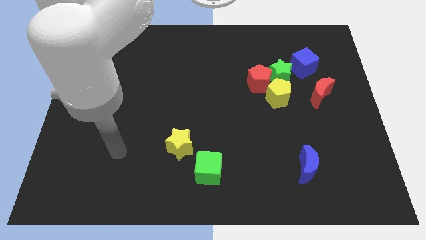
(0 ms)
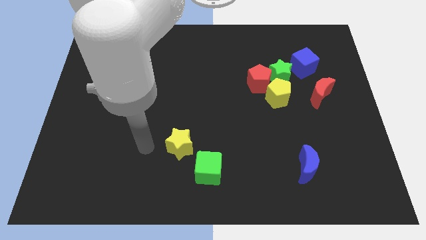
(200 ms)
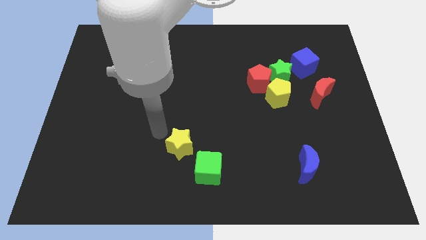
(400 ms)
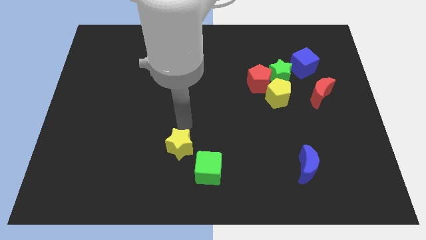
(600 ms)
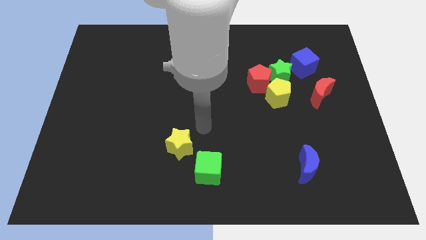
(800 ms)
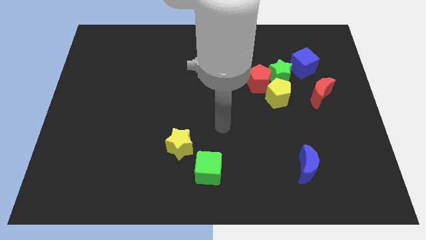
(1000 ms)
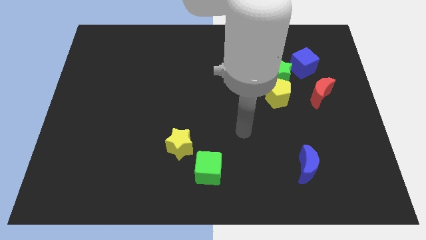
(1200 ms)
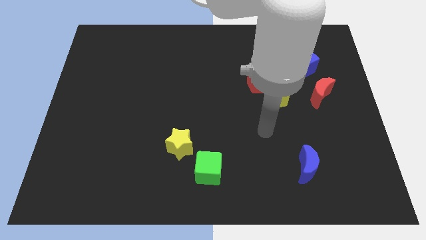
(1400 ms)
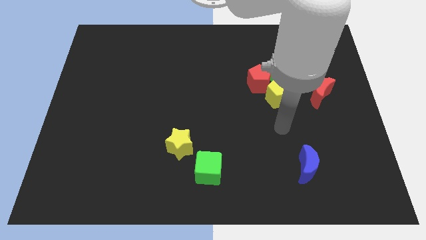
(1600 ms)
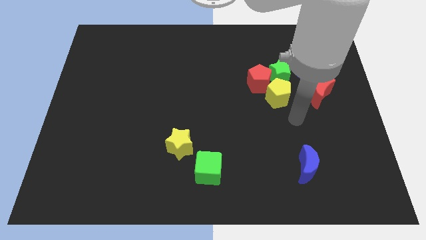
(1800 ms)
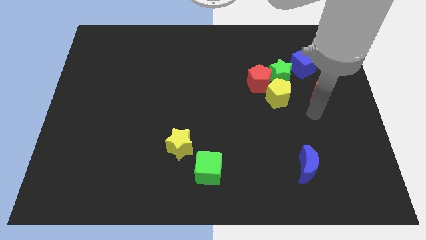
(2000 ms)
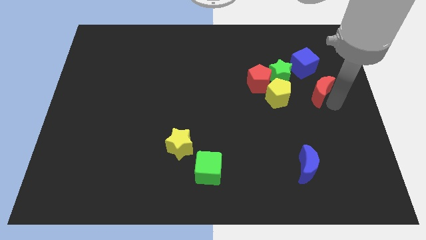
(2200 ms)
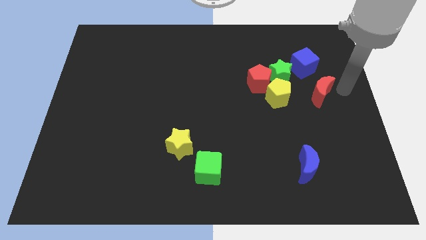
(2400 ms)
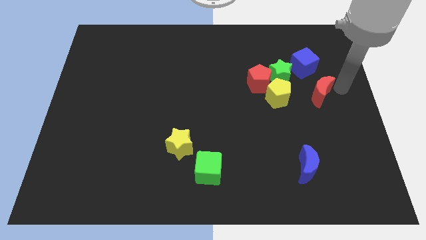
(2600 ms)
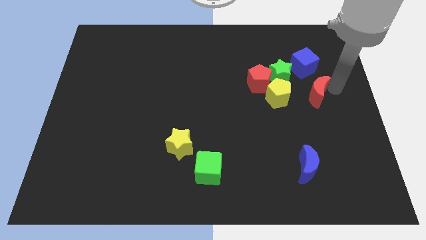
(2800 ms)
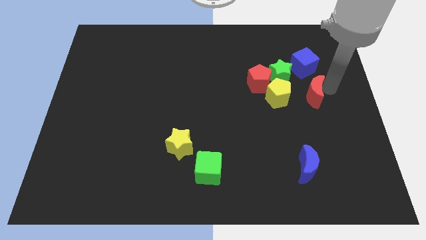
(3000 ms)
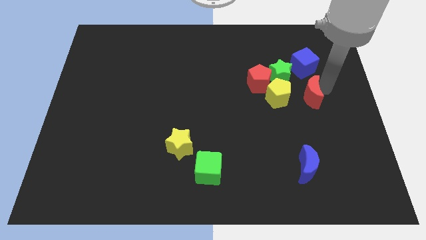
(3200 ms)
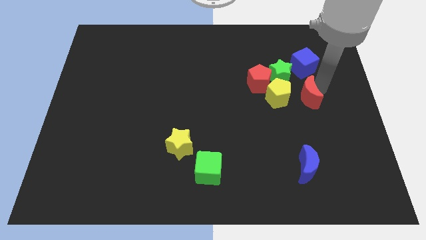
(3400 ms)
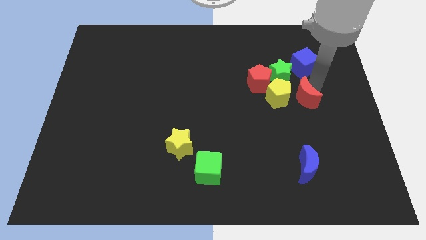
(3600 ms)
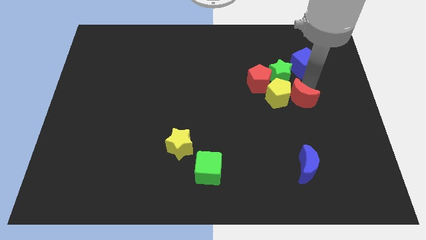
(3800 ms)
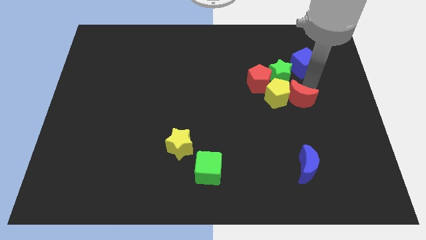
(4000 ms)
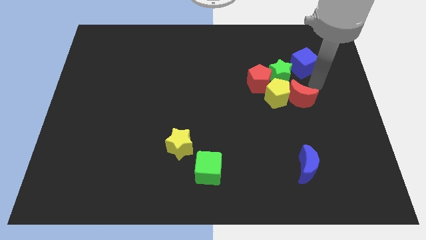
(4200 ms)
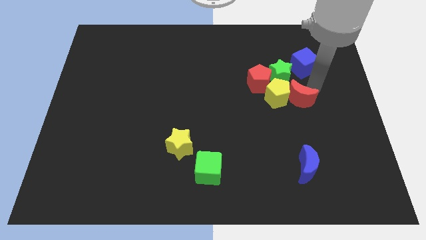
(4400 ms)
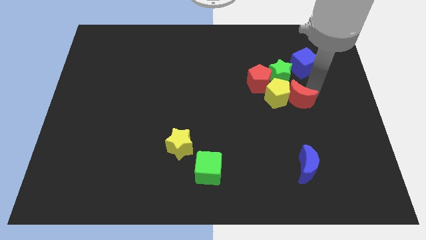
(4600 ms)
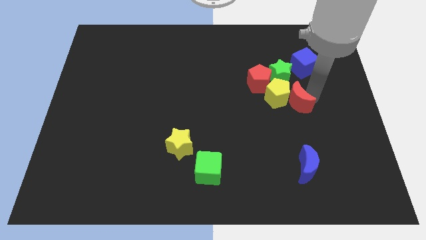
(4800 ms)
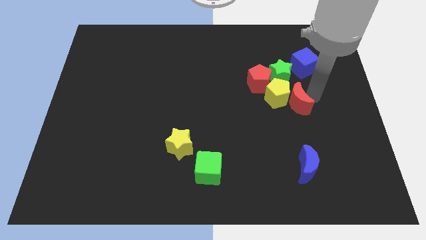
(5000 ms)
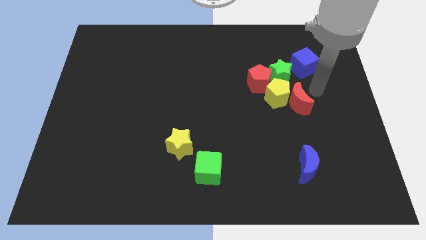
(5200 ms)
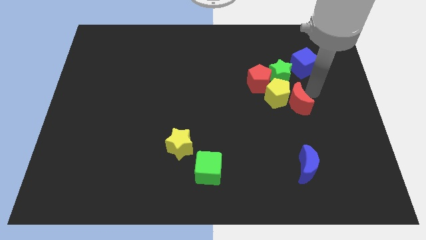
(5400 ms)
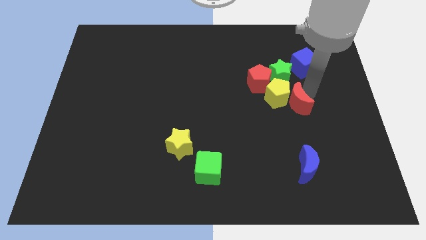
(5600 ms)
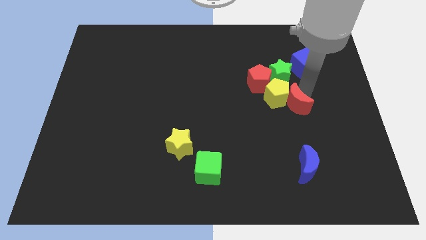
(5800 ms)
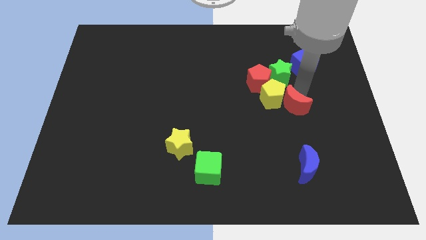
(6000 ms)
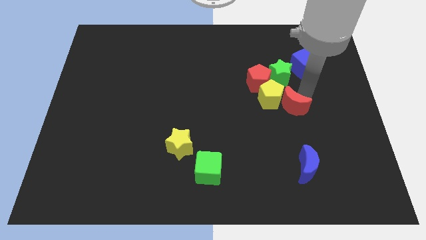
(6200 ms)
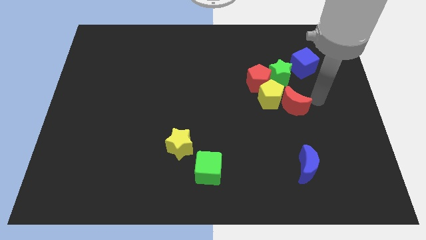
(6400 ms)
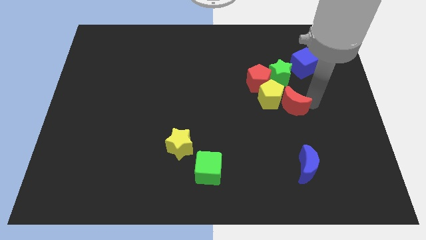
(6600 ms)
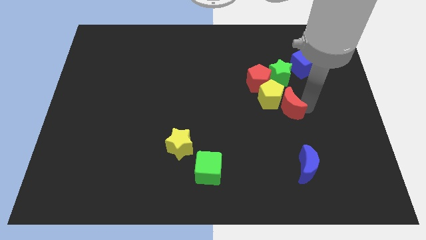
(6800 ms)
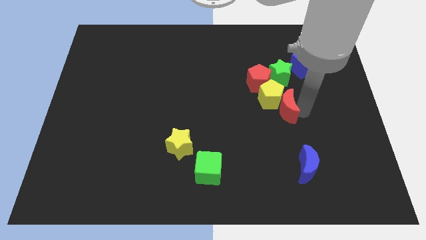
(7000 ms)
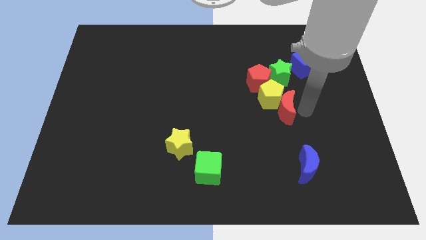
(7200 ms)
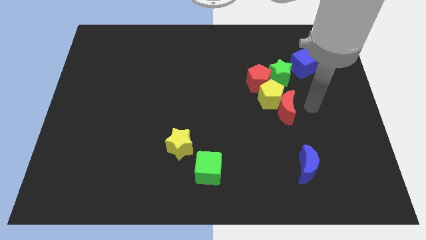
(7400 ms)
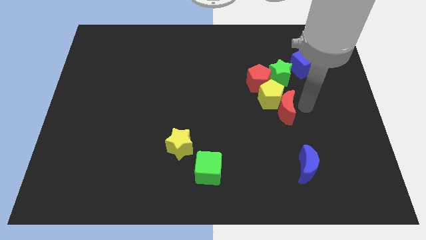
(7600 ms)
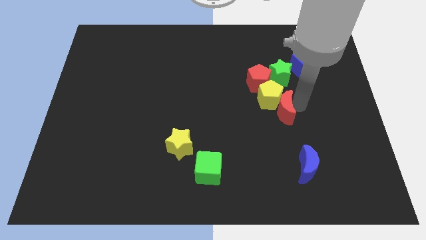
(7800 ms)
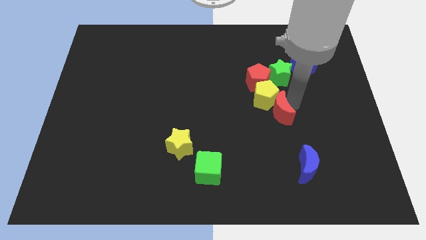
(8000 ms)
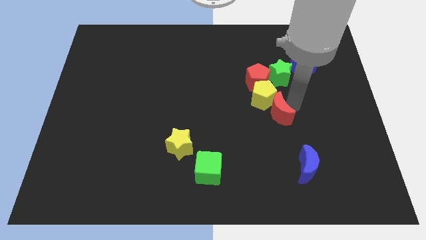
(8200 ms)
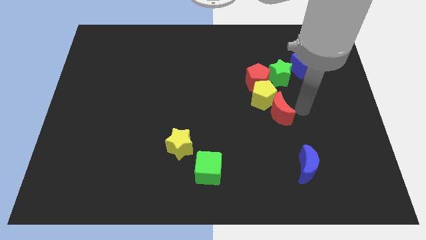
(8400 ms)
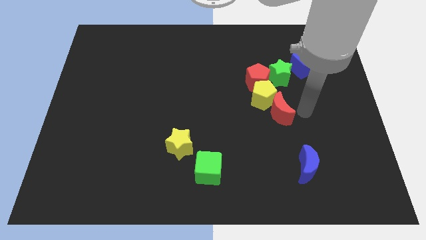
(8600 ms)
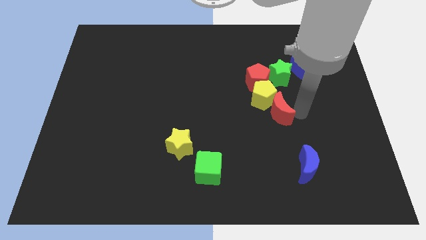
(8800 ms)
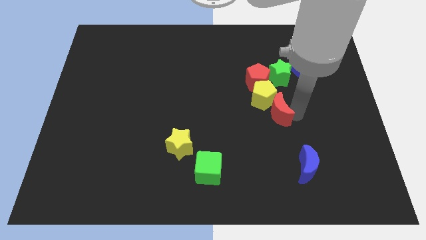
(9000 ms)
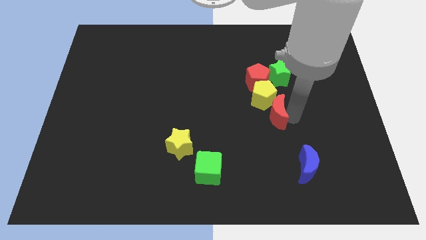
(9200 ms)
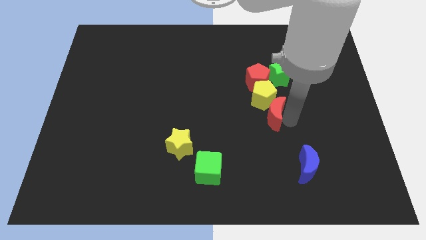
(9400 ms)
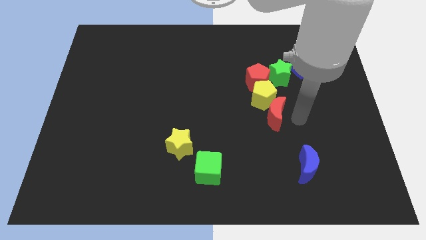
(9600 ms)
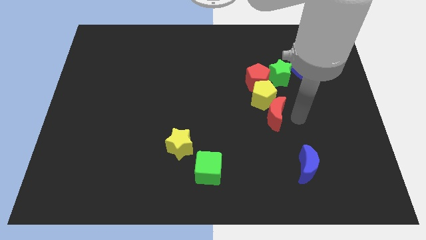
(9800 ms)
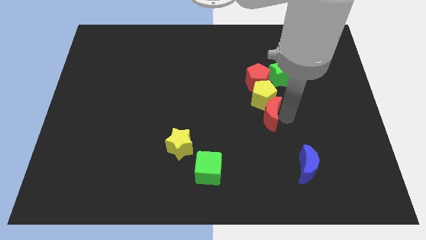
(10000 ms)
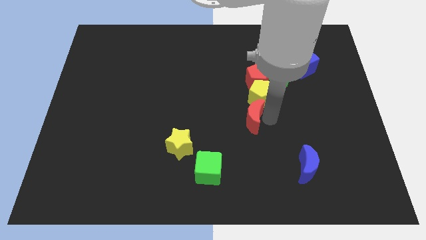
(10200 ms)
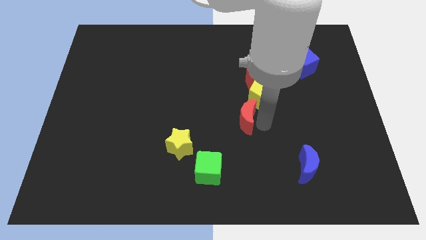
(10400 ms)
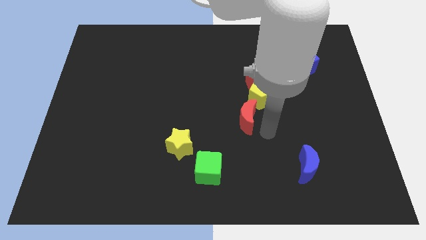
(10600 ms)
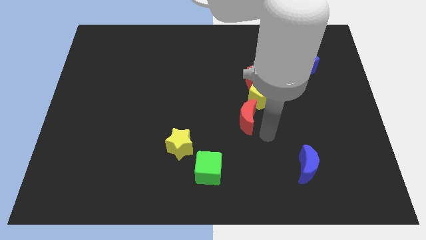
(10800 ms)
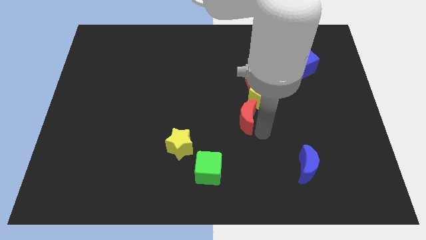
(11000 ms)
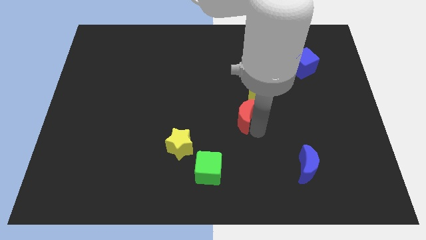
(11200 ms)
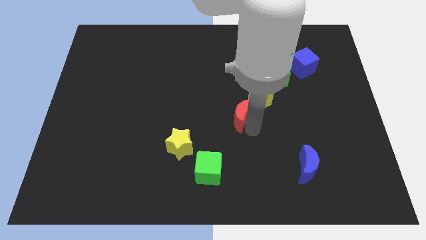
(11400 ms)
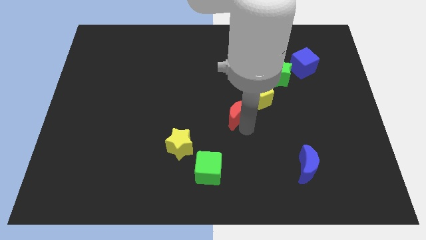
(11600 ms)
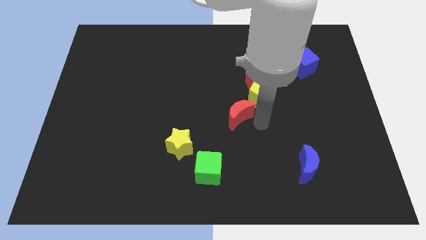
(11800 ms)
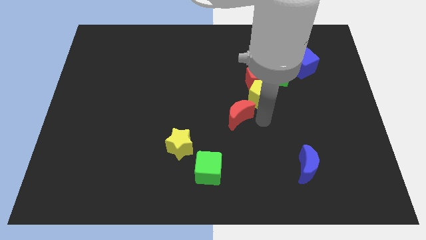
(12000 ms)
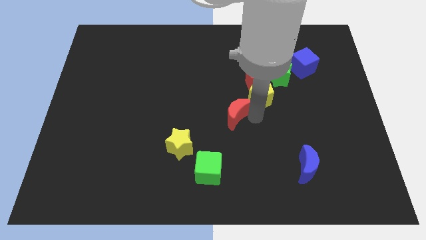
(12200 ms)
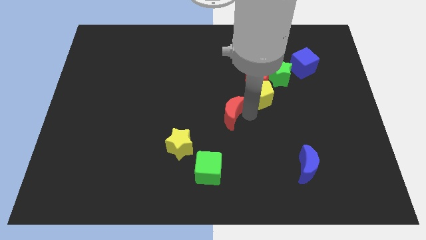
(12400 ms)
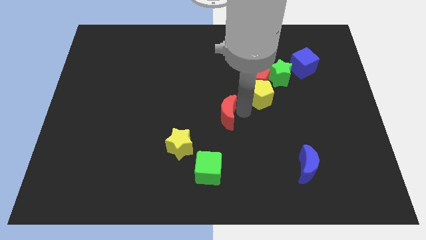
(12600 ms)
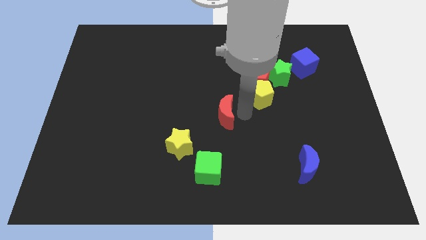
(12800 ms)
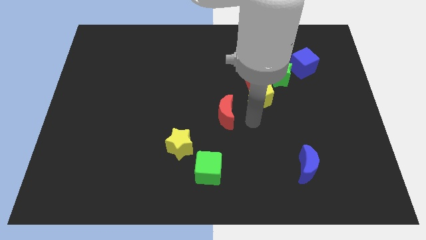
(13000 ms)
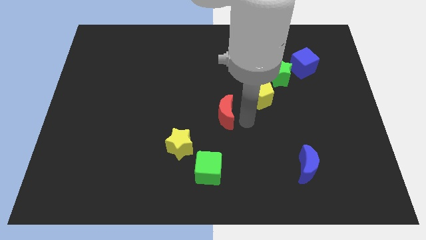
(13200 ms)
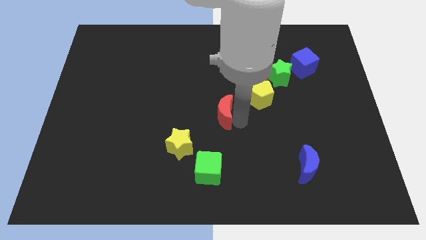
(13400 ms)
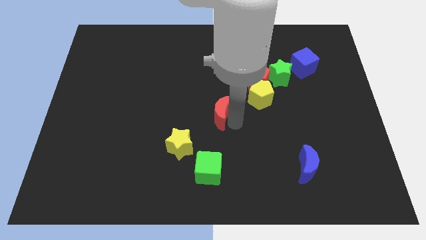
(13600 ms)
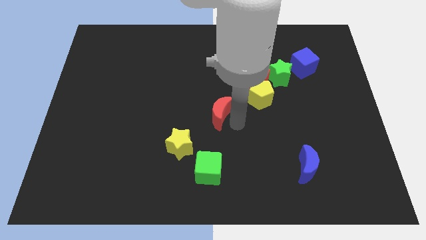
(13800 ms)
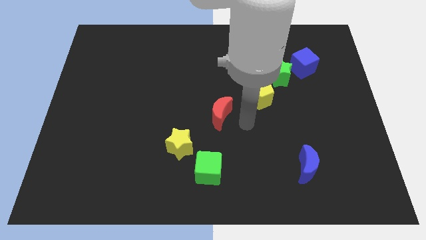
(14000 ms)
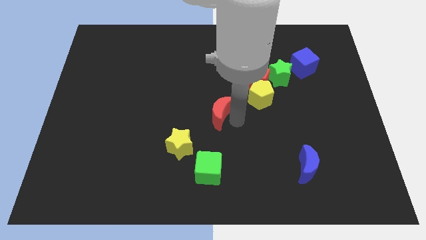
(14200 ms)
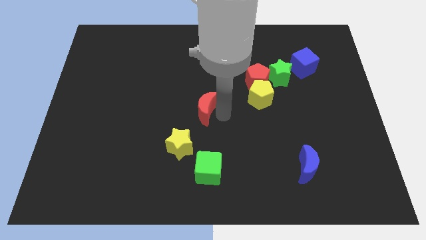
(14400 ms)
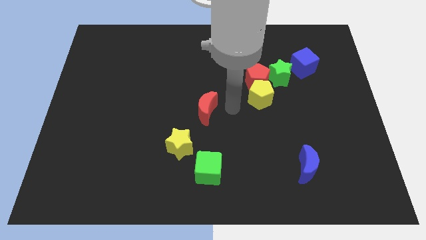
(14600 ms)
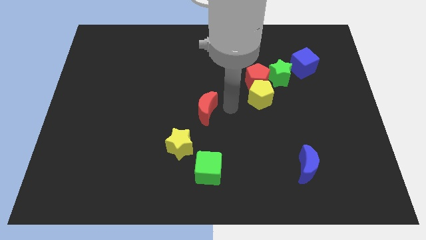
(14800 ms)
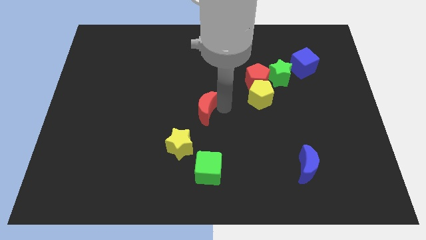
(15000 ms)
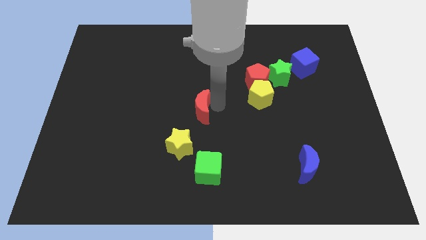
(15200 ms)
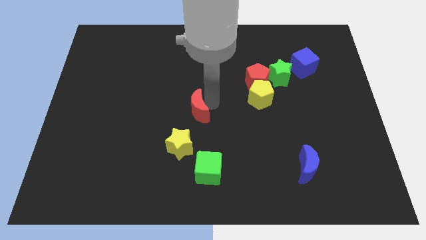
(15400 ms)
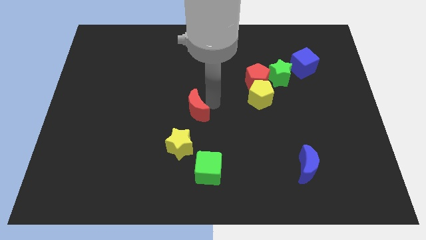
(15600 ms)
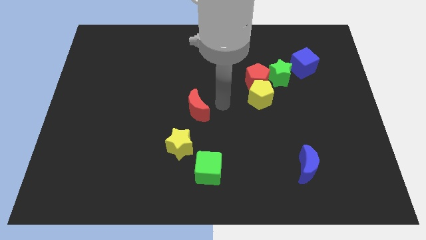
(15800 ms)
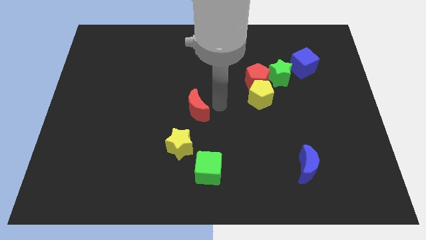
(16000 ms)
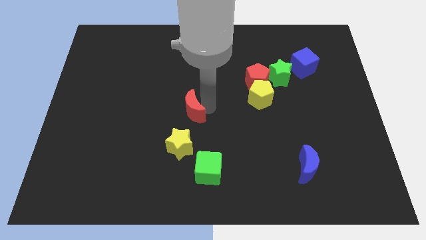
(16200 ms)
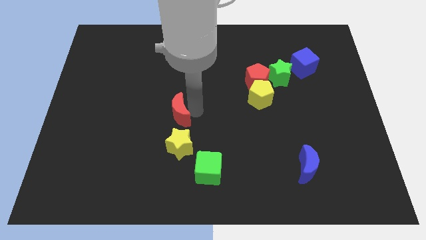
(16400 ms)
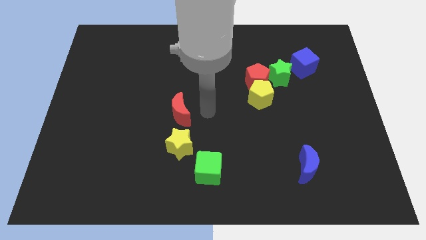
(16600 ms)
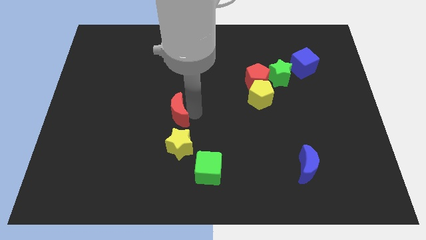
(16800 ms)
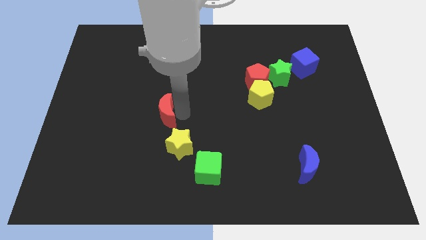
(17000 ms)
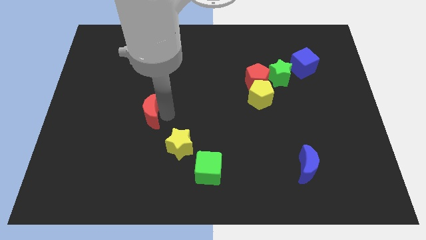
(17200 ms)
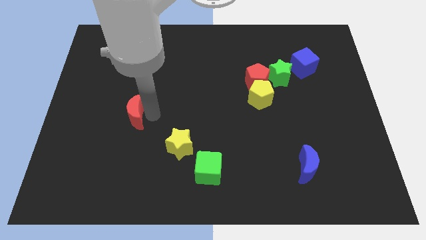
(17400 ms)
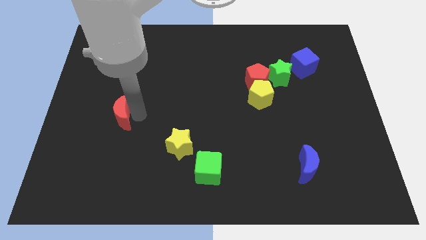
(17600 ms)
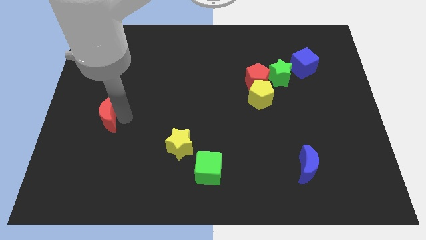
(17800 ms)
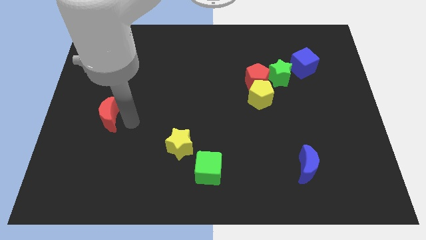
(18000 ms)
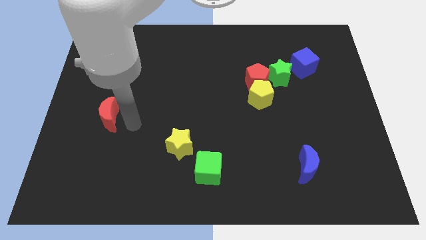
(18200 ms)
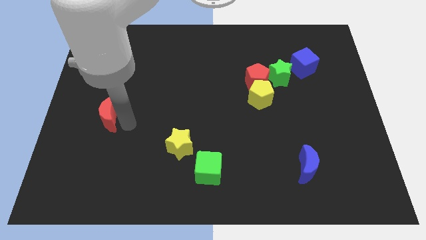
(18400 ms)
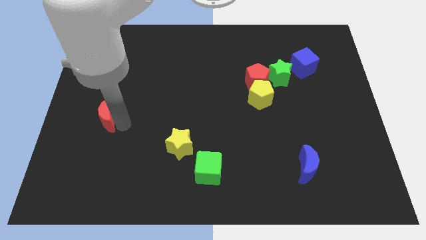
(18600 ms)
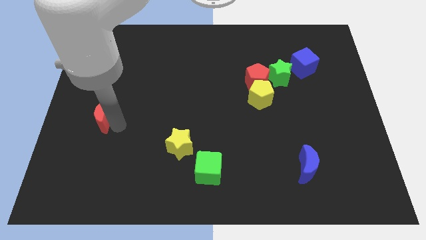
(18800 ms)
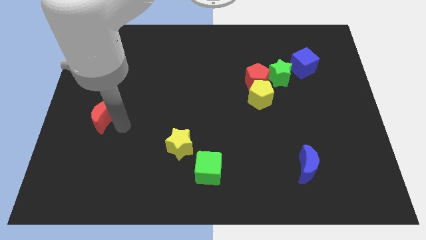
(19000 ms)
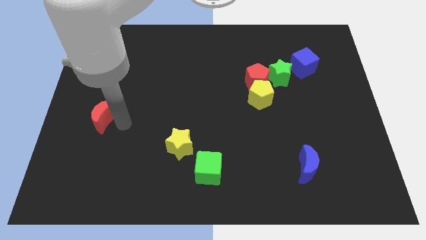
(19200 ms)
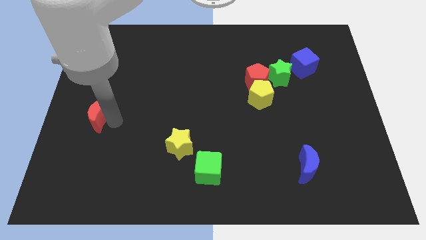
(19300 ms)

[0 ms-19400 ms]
push the red moon to the left side
